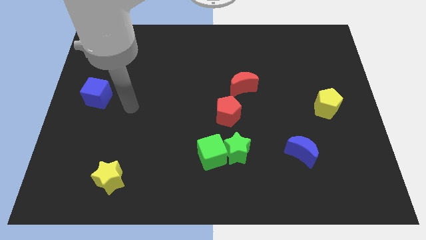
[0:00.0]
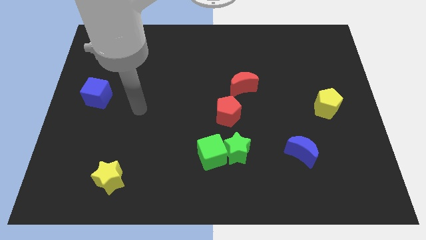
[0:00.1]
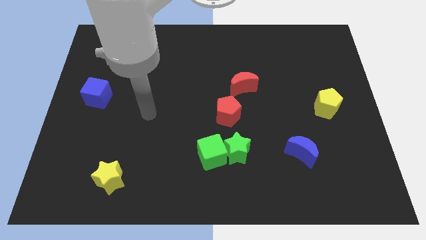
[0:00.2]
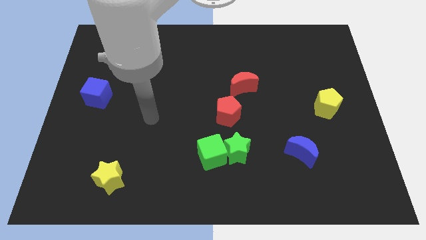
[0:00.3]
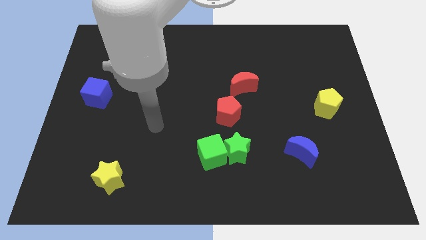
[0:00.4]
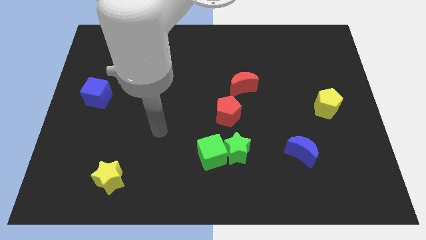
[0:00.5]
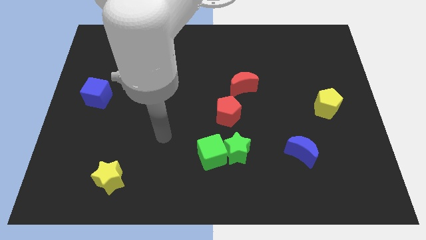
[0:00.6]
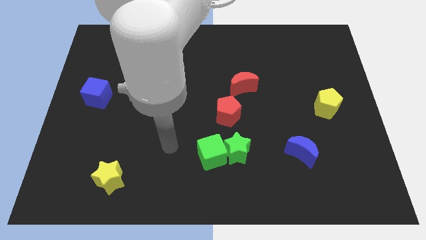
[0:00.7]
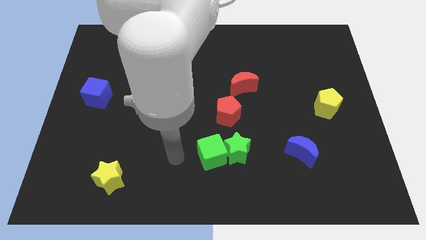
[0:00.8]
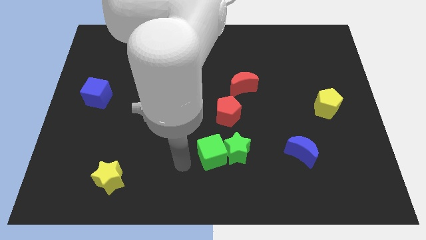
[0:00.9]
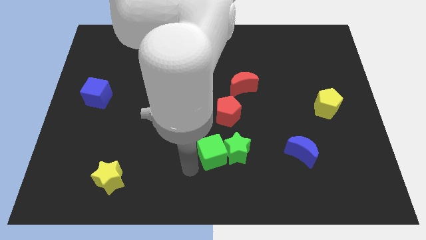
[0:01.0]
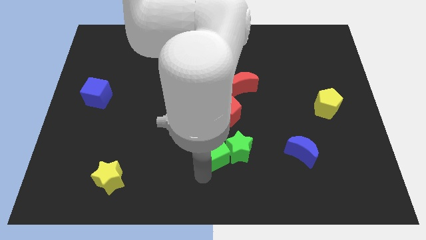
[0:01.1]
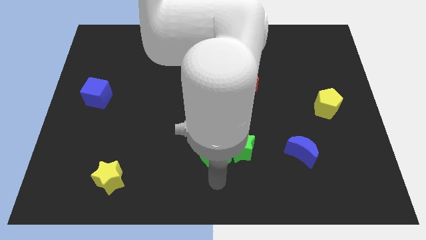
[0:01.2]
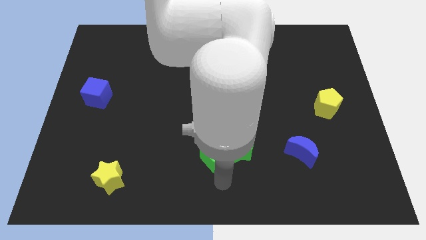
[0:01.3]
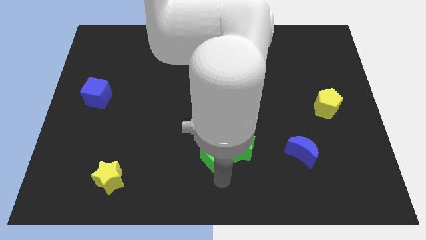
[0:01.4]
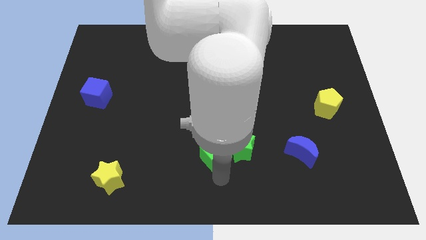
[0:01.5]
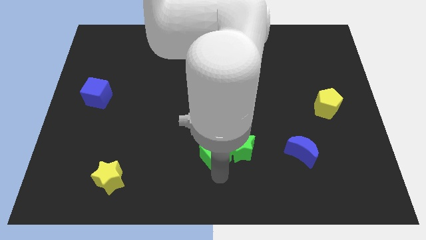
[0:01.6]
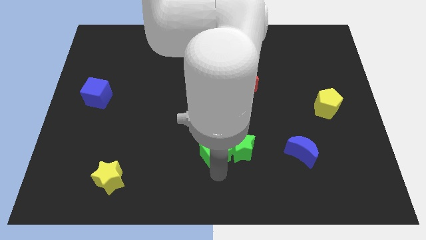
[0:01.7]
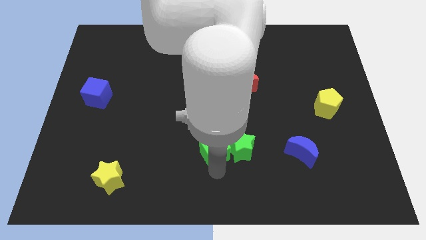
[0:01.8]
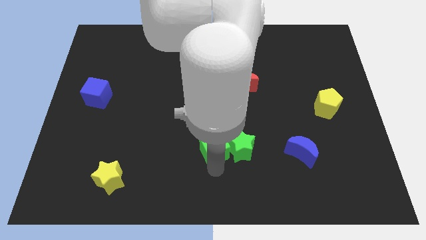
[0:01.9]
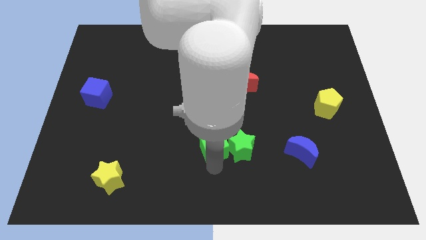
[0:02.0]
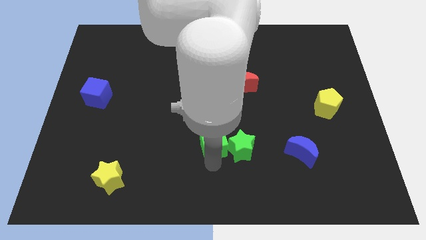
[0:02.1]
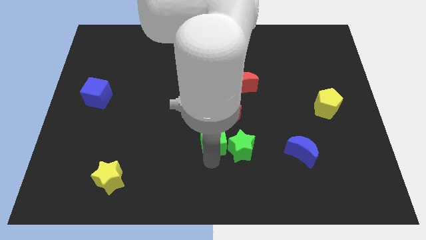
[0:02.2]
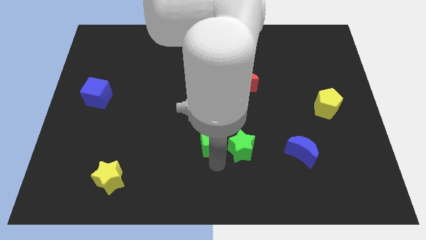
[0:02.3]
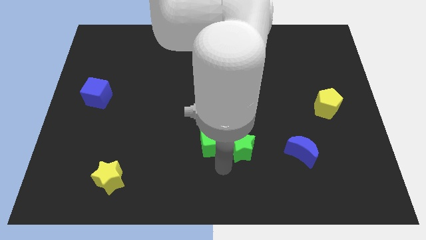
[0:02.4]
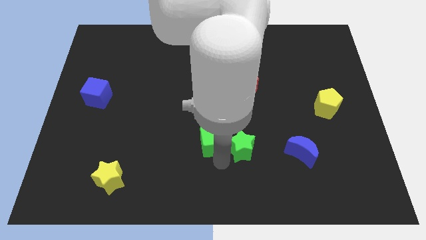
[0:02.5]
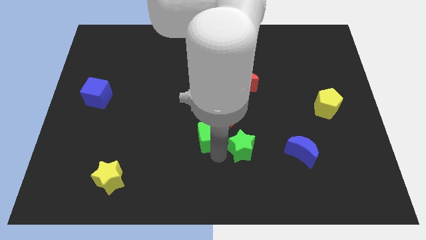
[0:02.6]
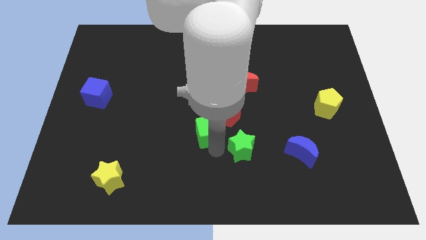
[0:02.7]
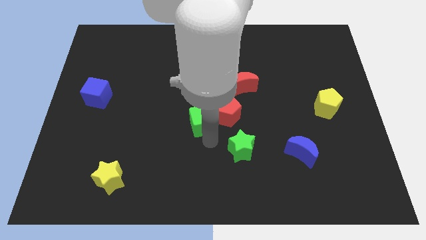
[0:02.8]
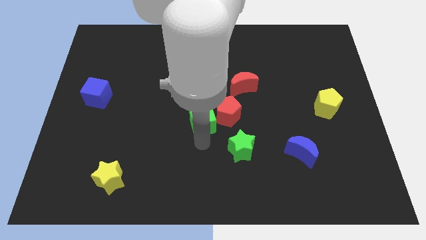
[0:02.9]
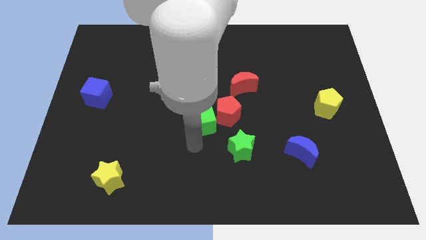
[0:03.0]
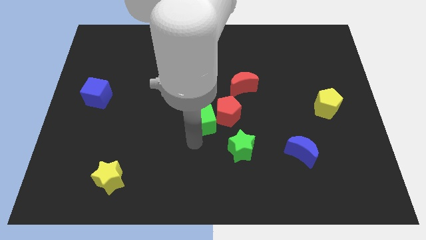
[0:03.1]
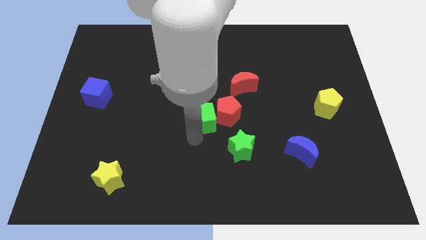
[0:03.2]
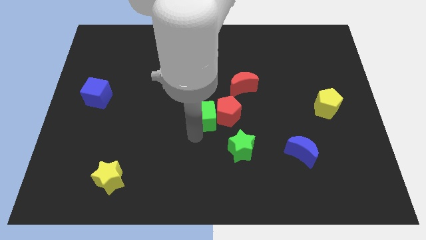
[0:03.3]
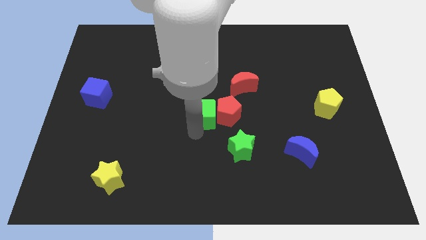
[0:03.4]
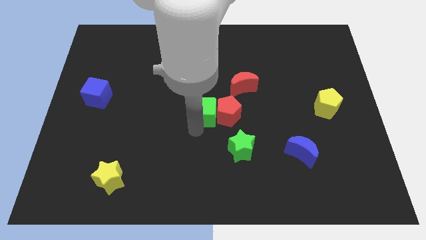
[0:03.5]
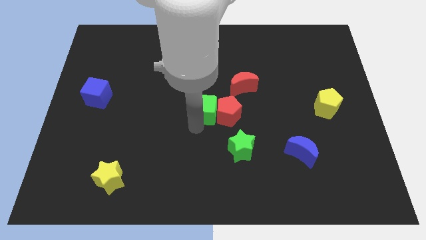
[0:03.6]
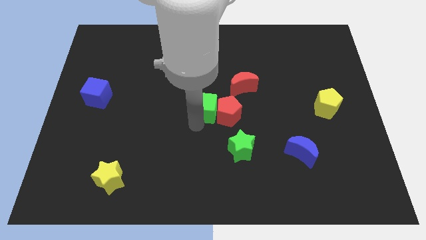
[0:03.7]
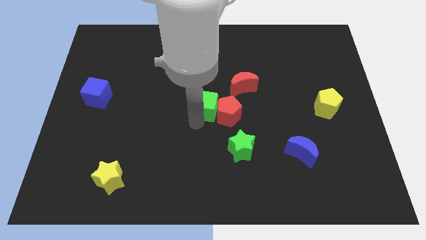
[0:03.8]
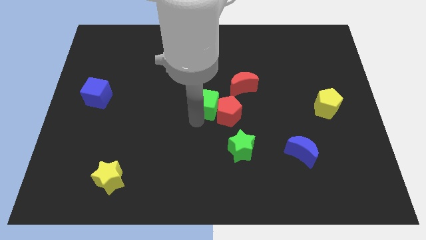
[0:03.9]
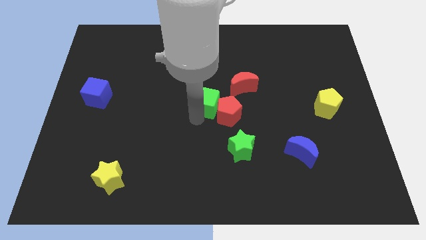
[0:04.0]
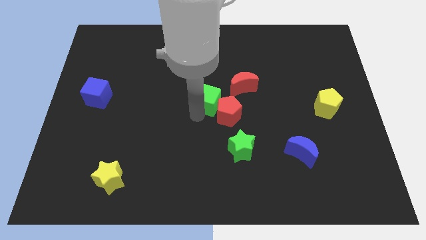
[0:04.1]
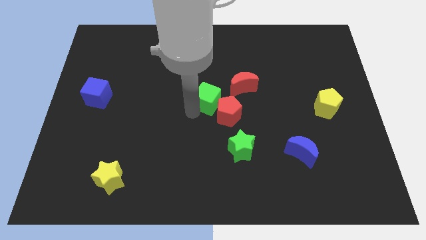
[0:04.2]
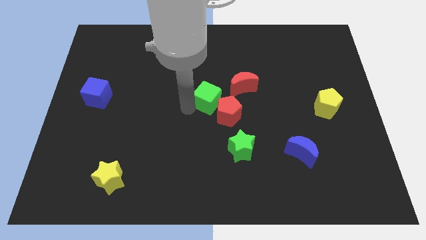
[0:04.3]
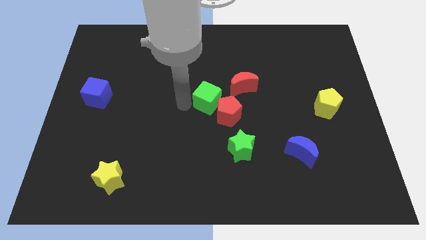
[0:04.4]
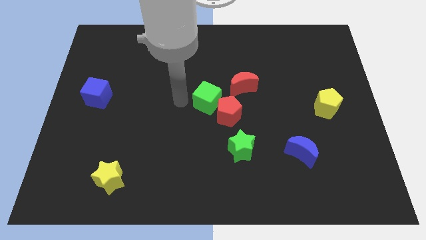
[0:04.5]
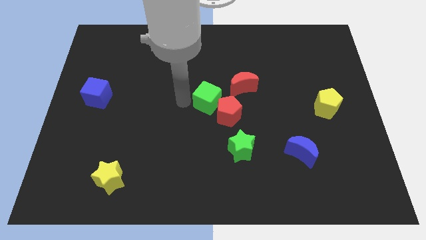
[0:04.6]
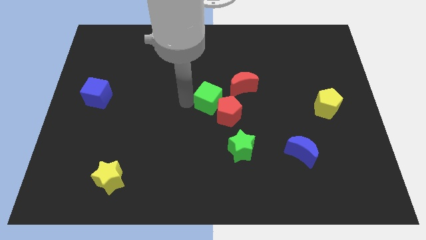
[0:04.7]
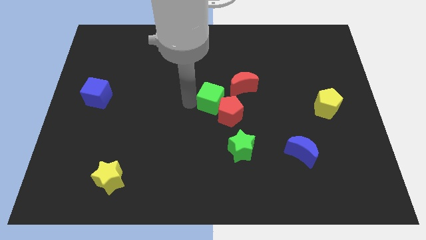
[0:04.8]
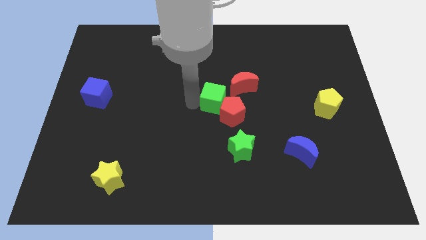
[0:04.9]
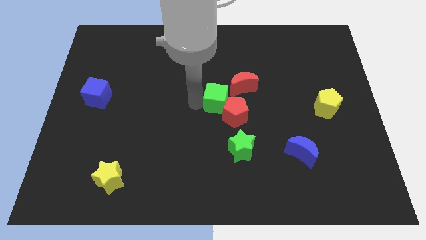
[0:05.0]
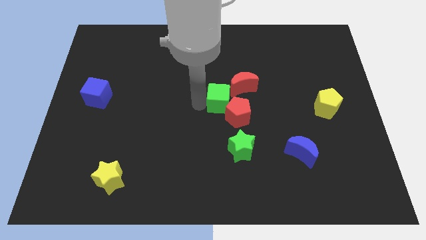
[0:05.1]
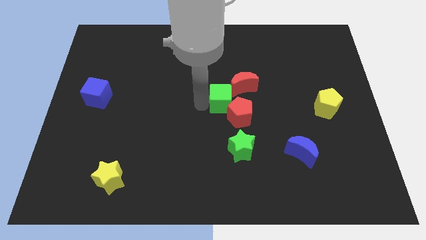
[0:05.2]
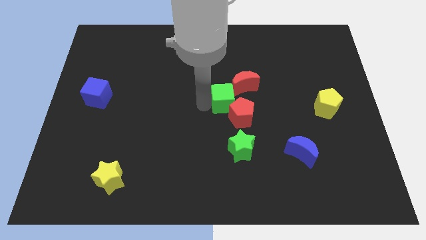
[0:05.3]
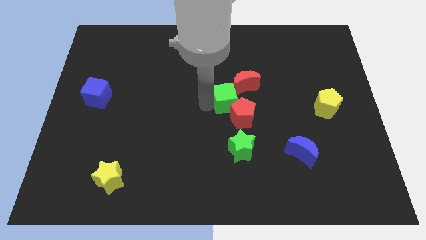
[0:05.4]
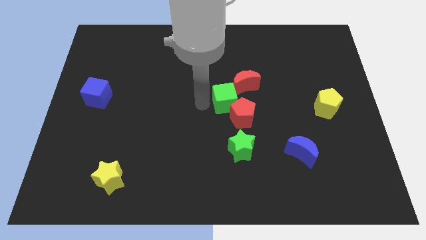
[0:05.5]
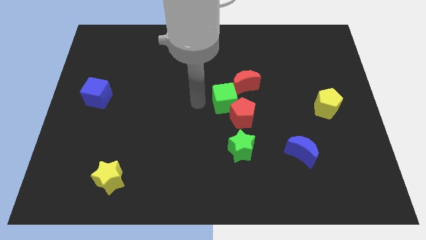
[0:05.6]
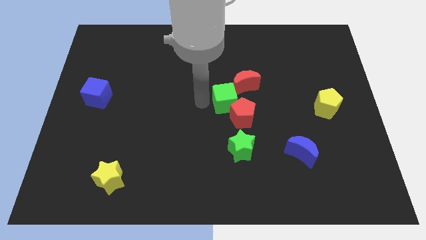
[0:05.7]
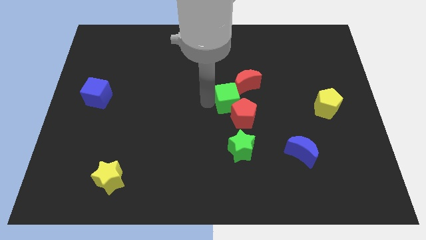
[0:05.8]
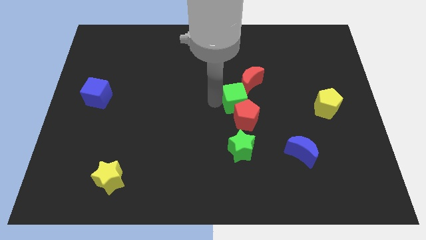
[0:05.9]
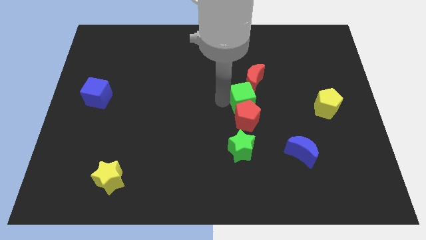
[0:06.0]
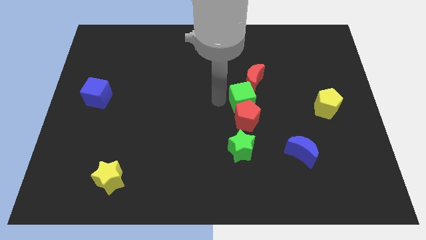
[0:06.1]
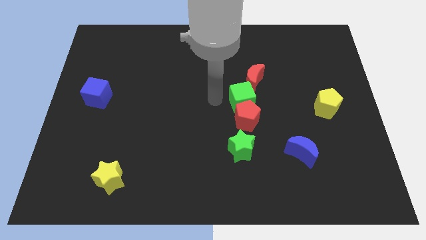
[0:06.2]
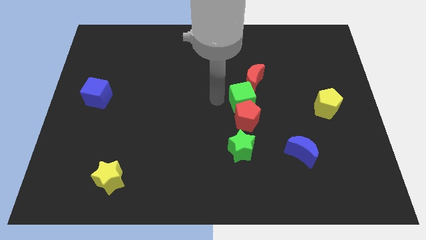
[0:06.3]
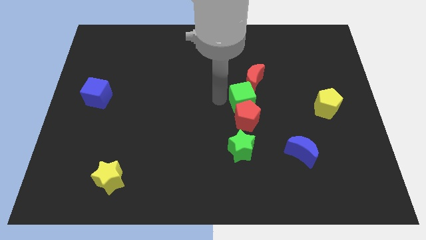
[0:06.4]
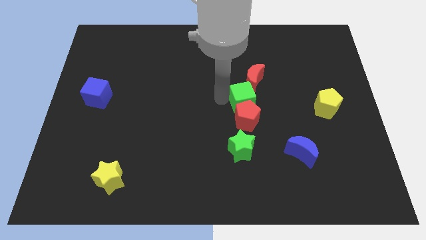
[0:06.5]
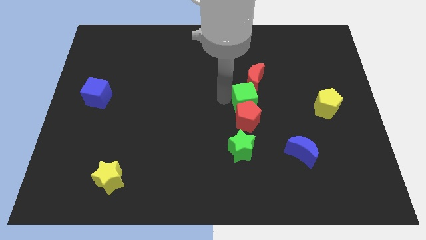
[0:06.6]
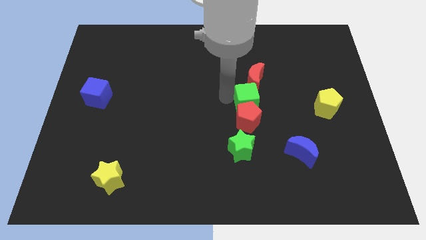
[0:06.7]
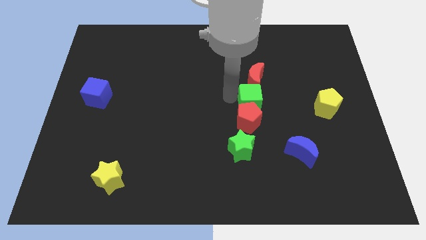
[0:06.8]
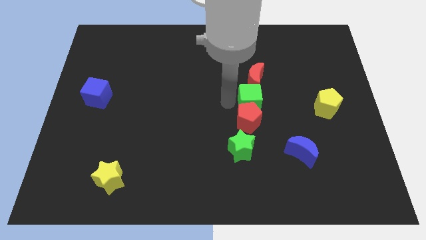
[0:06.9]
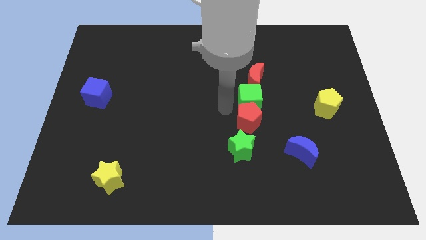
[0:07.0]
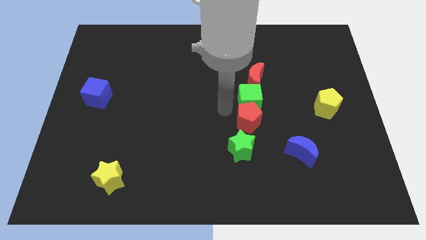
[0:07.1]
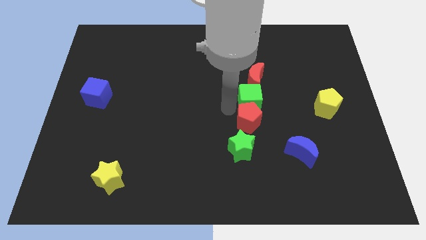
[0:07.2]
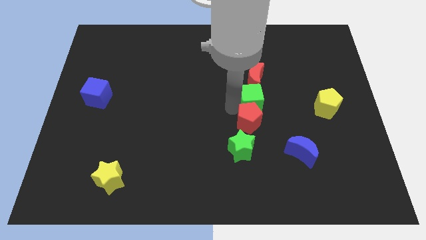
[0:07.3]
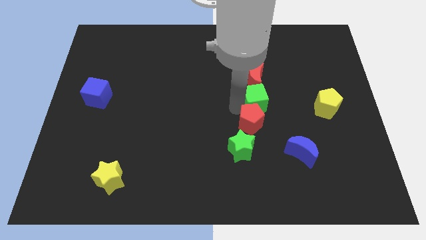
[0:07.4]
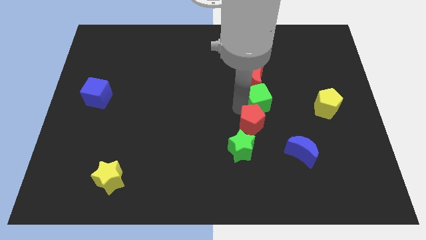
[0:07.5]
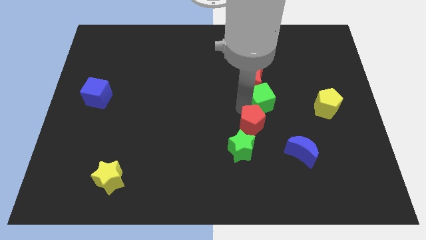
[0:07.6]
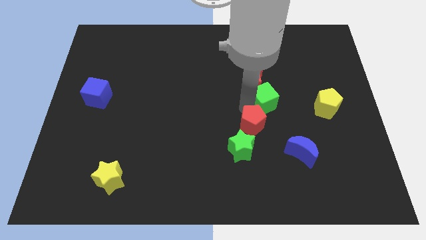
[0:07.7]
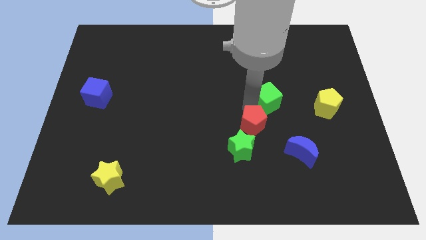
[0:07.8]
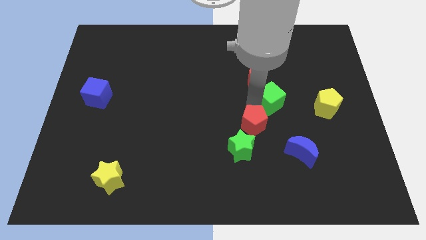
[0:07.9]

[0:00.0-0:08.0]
slide the green cube up and then right
